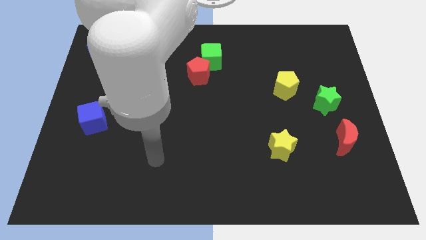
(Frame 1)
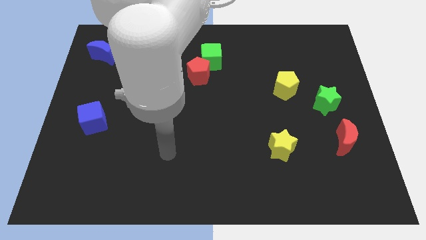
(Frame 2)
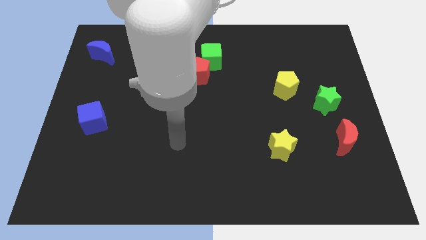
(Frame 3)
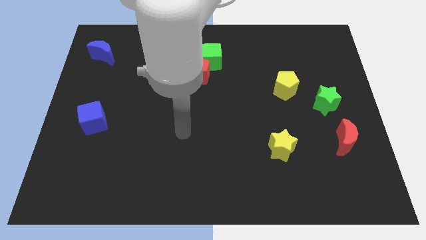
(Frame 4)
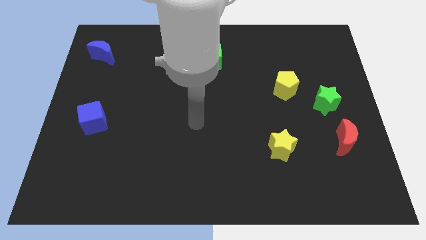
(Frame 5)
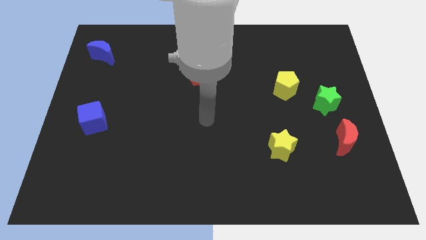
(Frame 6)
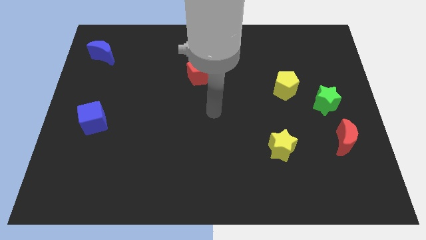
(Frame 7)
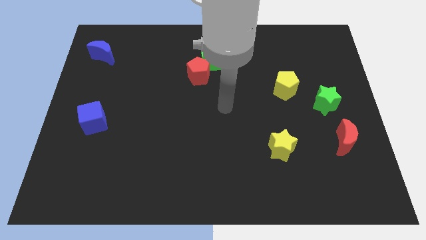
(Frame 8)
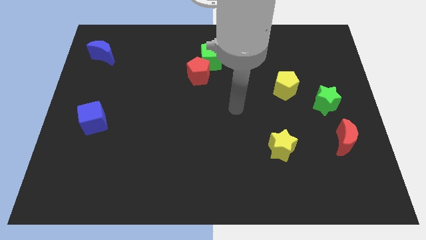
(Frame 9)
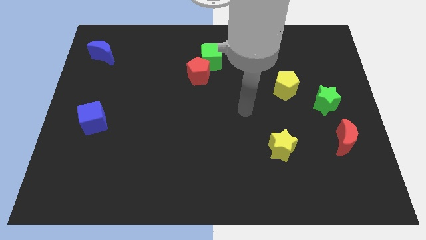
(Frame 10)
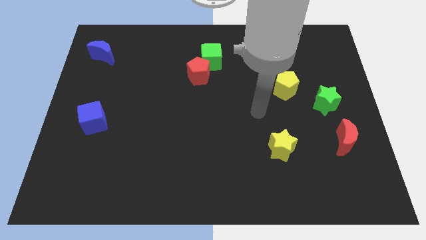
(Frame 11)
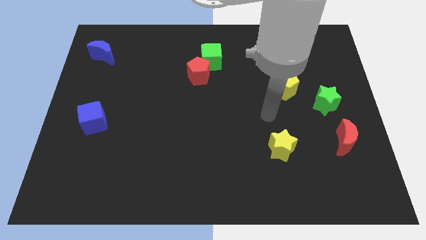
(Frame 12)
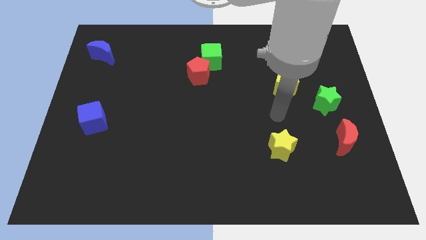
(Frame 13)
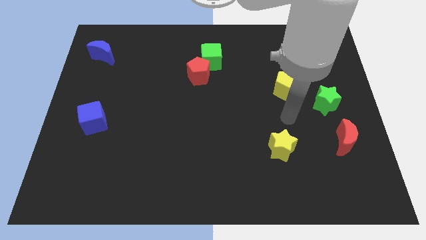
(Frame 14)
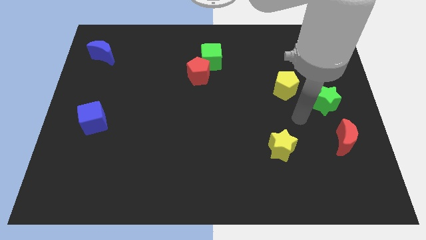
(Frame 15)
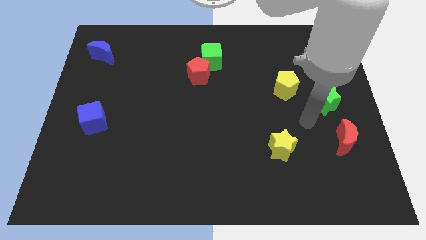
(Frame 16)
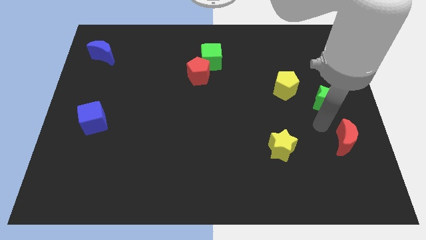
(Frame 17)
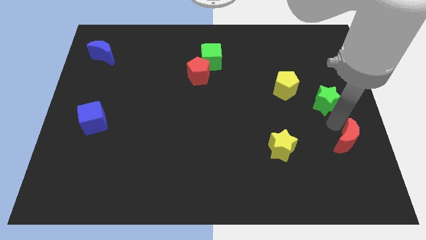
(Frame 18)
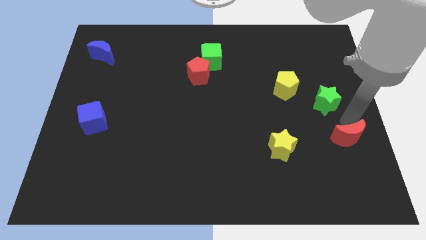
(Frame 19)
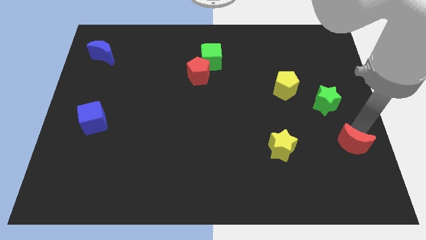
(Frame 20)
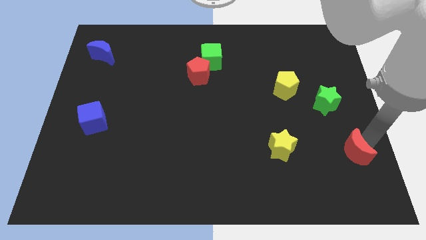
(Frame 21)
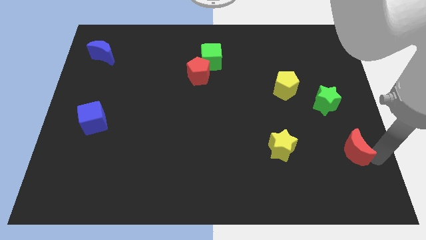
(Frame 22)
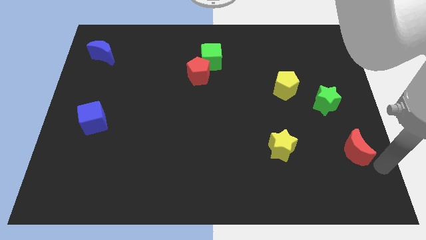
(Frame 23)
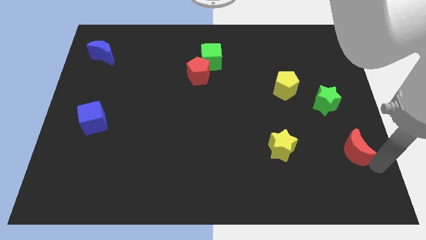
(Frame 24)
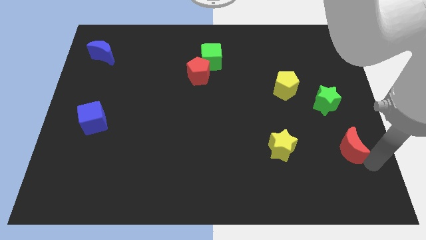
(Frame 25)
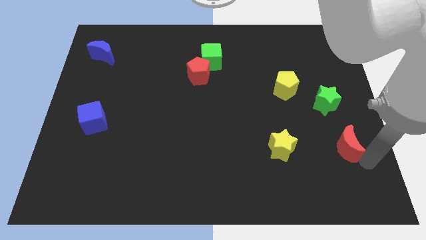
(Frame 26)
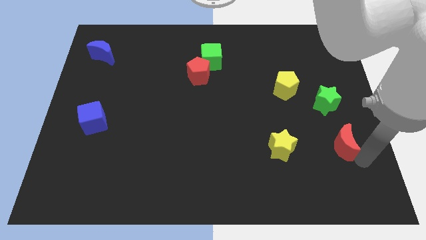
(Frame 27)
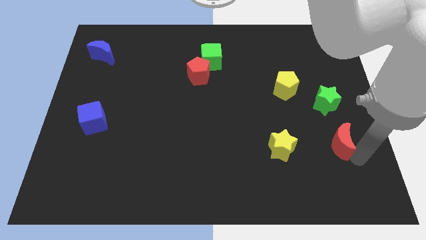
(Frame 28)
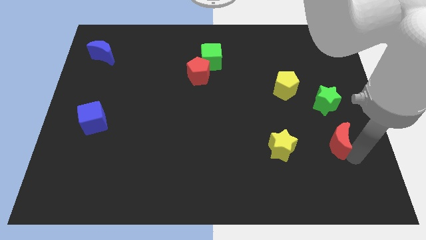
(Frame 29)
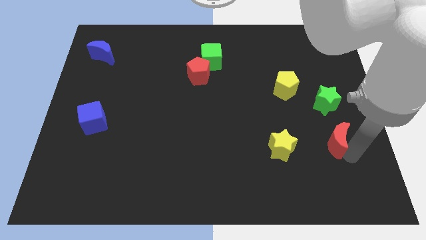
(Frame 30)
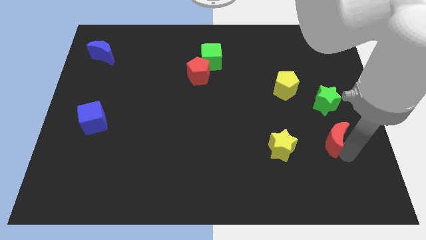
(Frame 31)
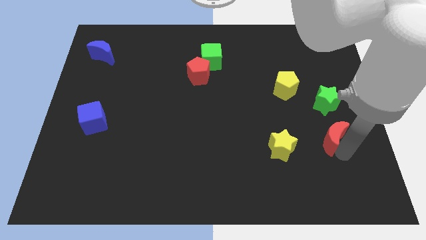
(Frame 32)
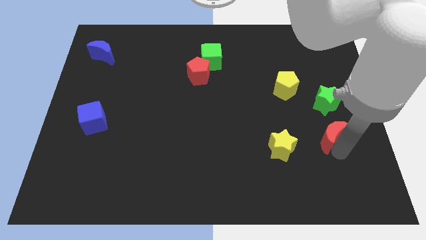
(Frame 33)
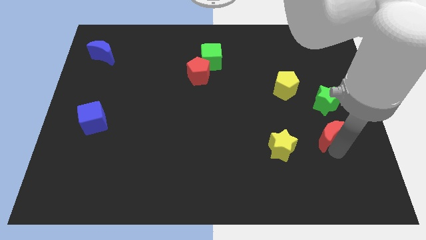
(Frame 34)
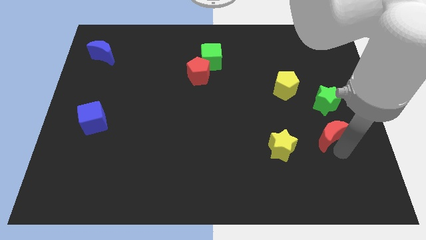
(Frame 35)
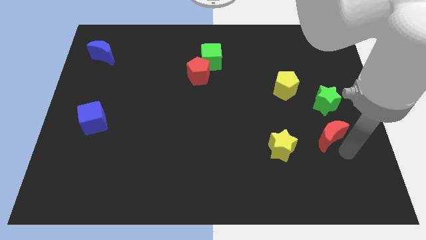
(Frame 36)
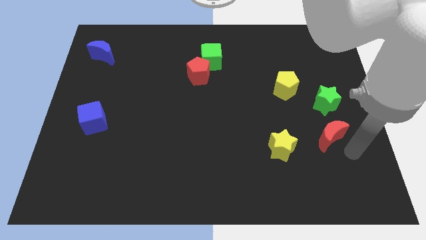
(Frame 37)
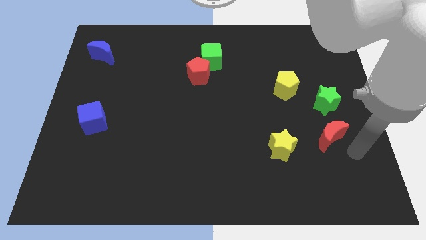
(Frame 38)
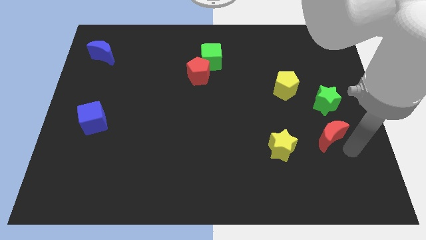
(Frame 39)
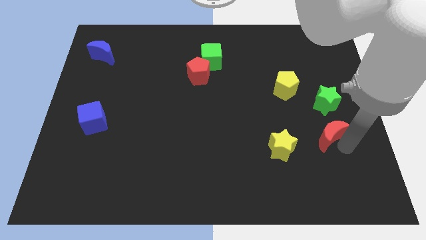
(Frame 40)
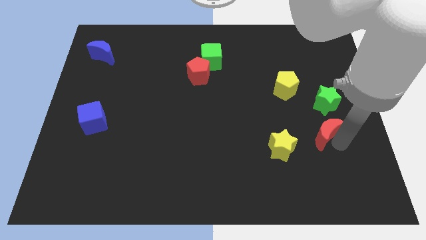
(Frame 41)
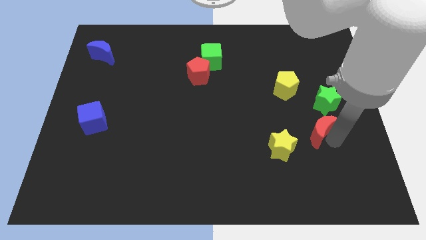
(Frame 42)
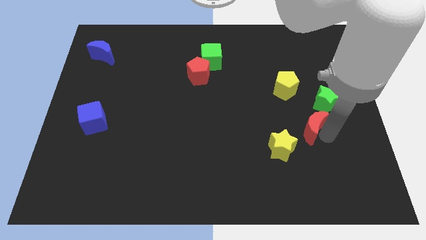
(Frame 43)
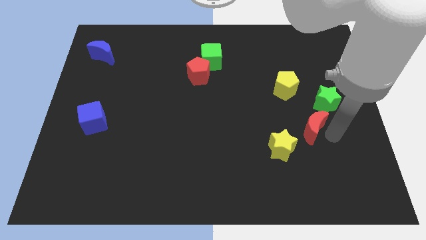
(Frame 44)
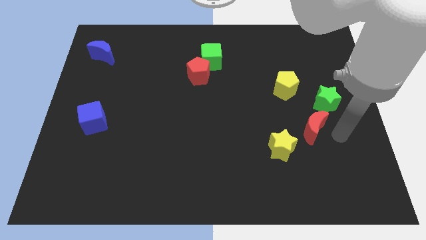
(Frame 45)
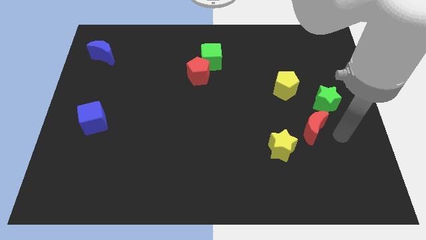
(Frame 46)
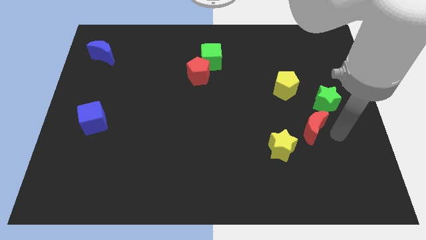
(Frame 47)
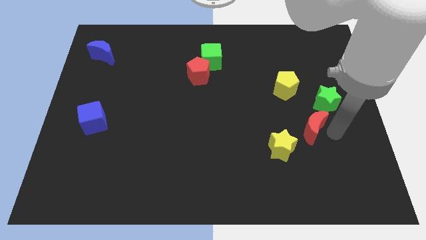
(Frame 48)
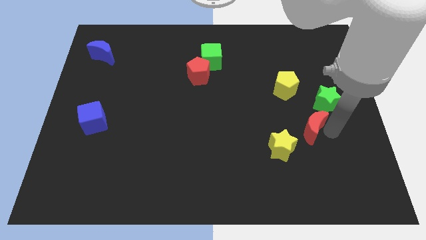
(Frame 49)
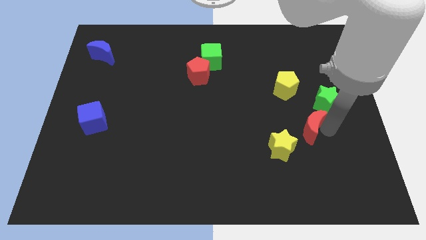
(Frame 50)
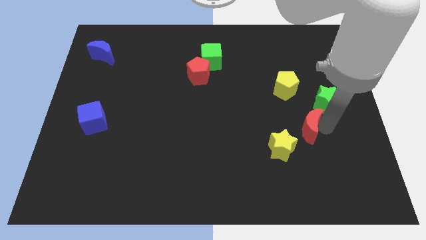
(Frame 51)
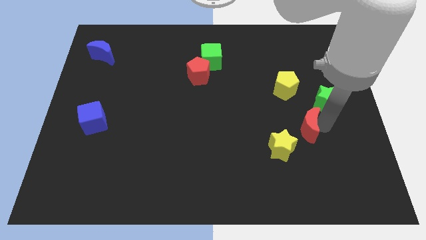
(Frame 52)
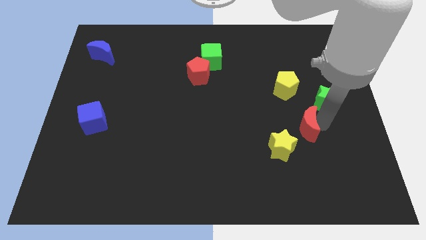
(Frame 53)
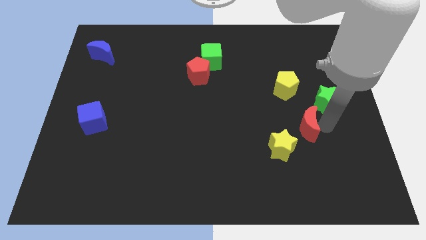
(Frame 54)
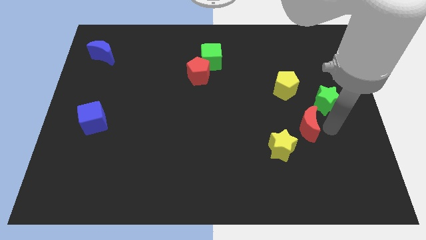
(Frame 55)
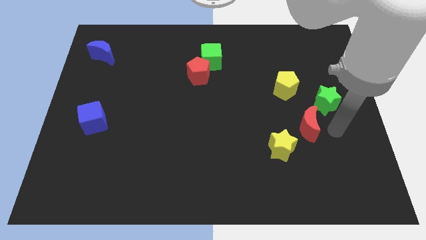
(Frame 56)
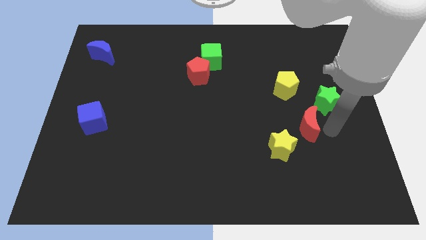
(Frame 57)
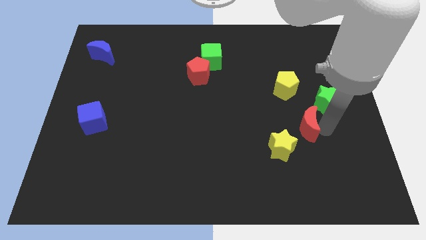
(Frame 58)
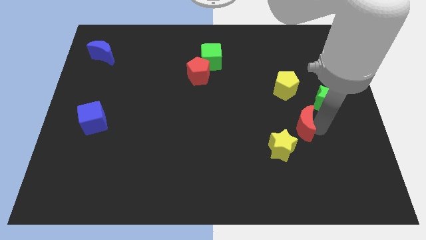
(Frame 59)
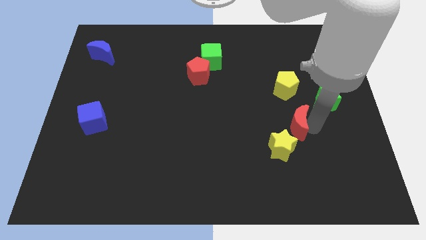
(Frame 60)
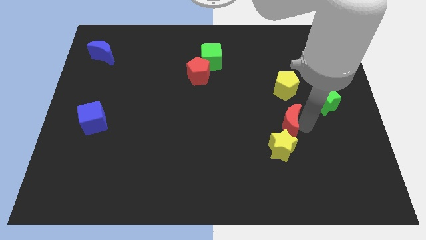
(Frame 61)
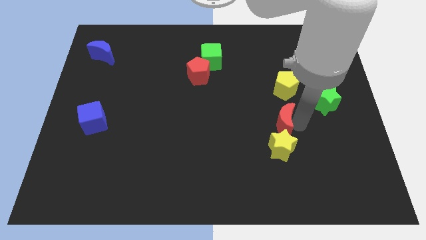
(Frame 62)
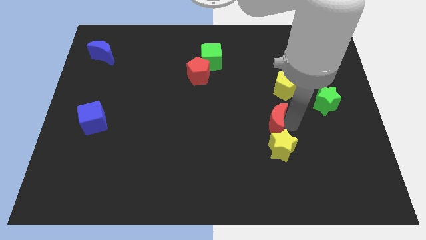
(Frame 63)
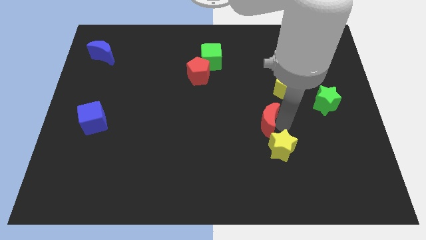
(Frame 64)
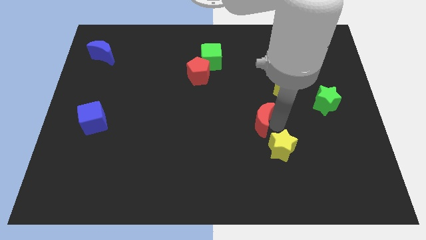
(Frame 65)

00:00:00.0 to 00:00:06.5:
slide the red moon to the middle of the board

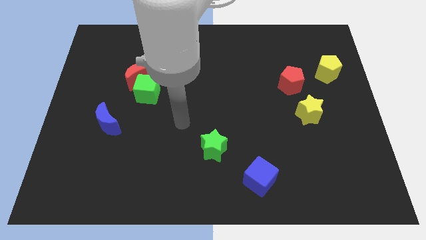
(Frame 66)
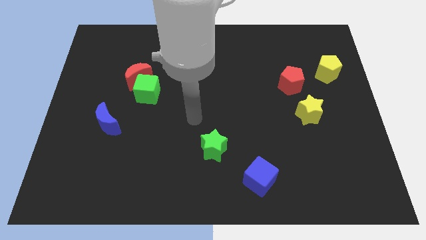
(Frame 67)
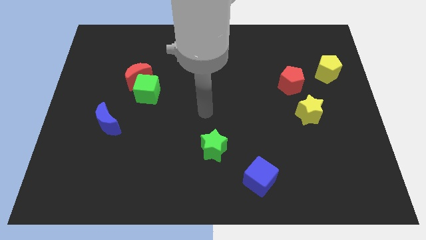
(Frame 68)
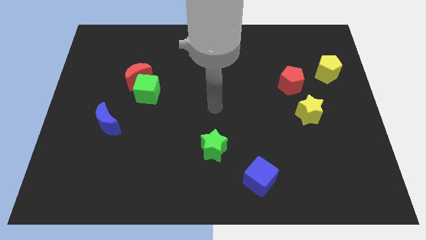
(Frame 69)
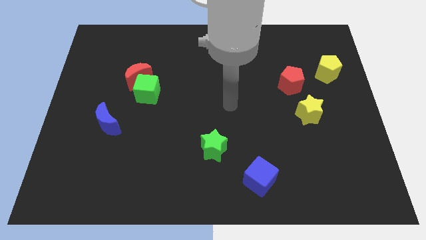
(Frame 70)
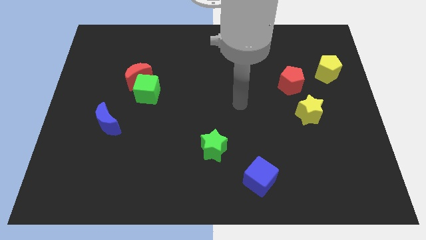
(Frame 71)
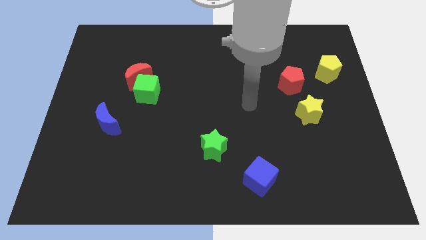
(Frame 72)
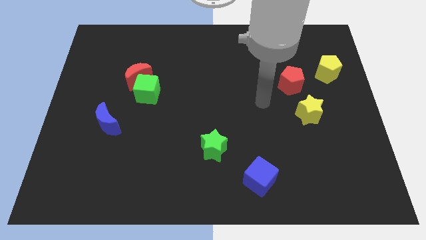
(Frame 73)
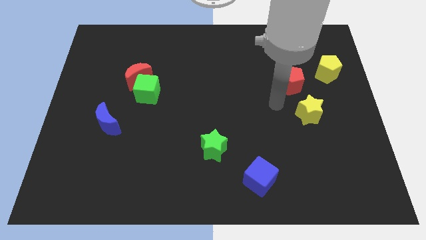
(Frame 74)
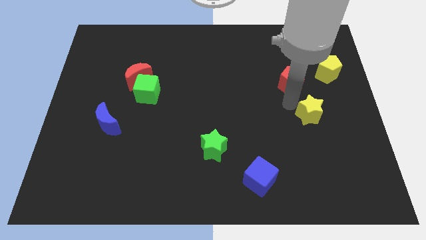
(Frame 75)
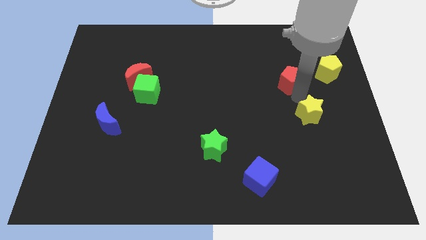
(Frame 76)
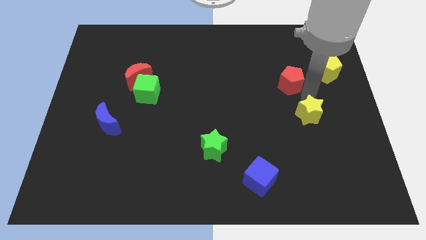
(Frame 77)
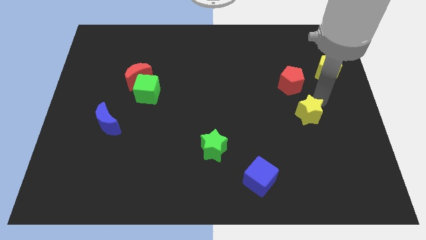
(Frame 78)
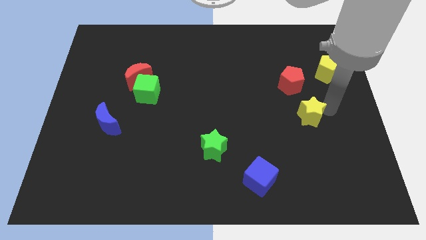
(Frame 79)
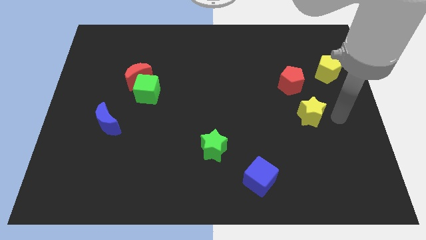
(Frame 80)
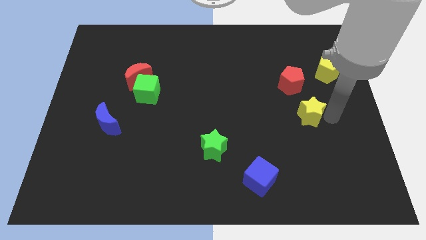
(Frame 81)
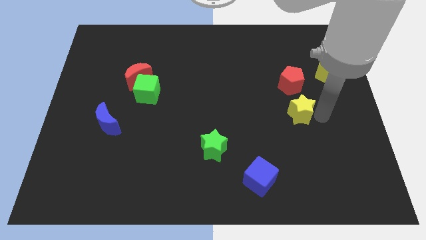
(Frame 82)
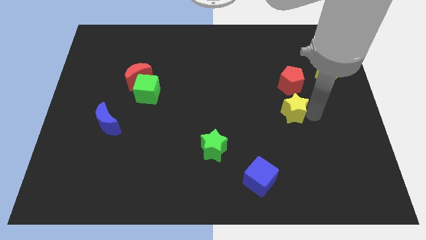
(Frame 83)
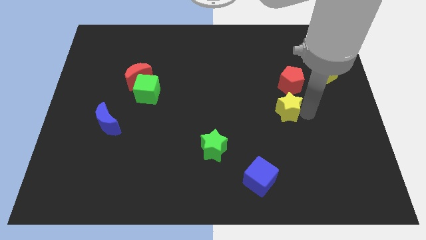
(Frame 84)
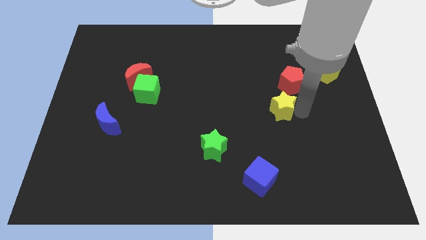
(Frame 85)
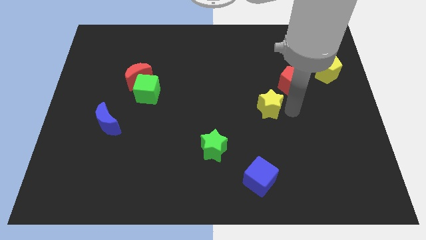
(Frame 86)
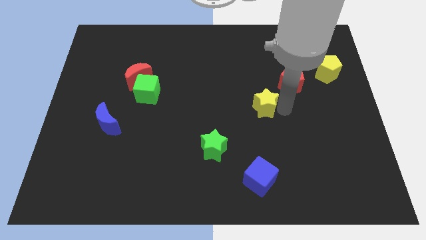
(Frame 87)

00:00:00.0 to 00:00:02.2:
move the yellow star to the middle of the board
